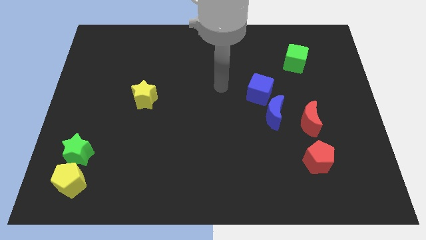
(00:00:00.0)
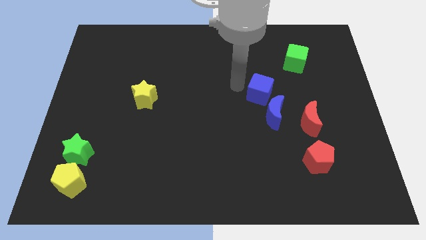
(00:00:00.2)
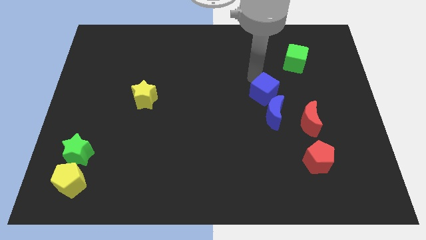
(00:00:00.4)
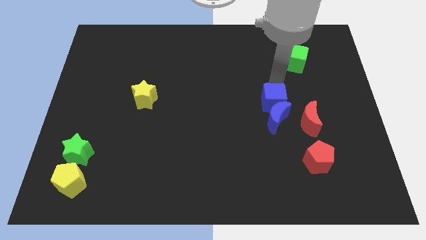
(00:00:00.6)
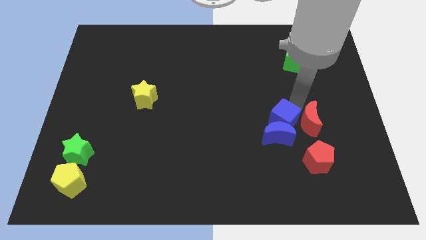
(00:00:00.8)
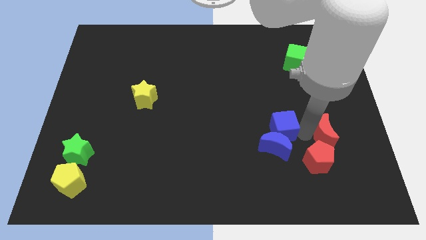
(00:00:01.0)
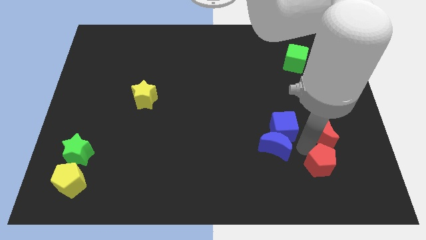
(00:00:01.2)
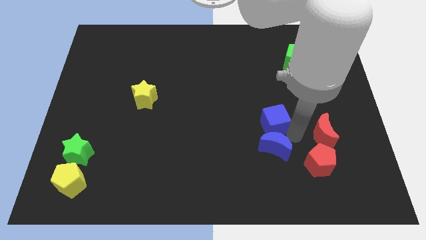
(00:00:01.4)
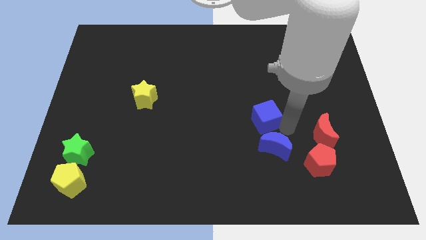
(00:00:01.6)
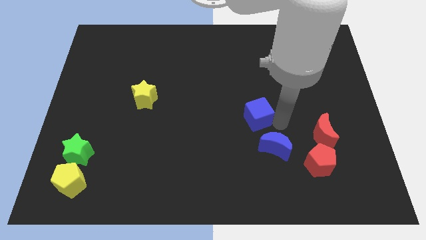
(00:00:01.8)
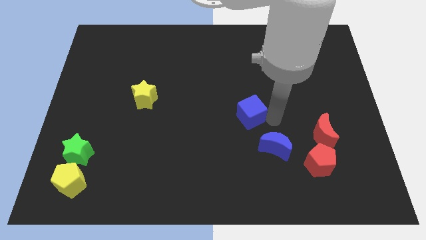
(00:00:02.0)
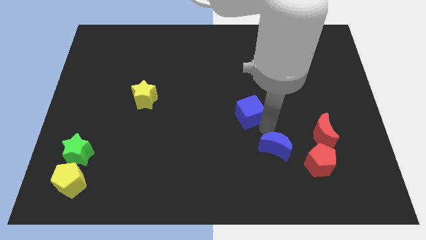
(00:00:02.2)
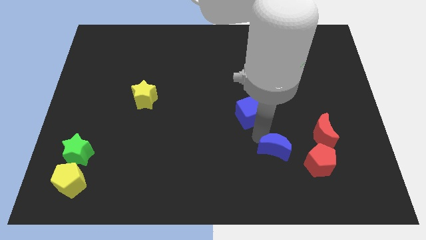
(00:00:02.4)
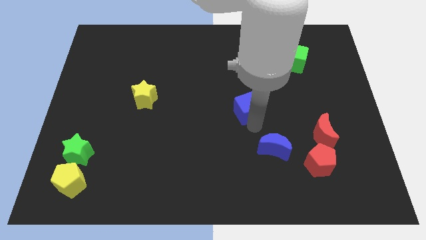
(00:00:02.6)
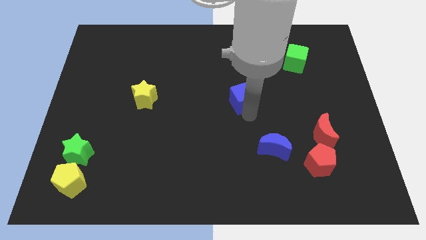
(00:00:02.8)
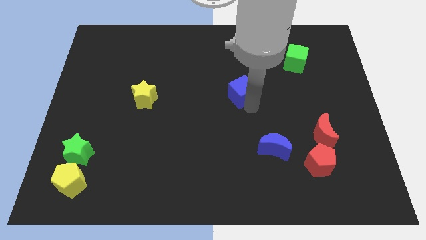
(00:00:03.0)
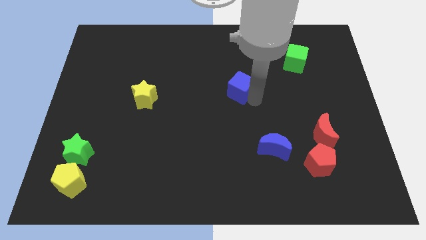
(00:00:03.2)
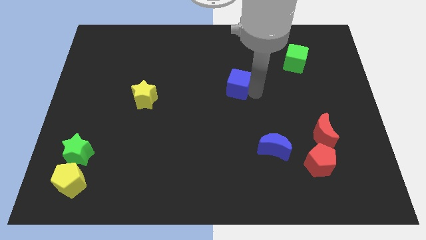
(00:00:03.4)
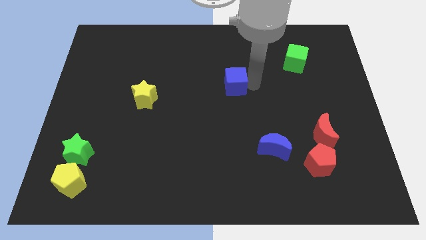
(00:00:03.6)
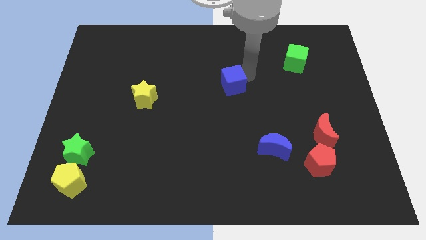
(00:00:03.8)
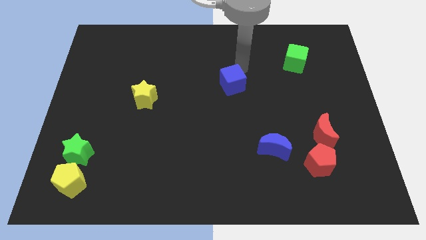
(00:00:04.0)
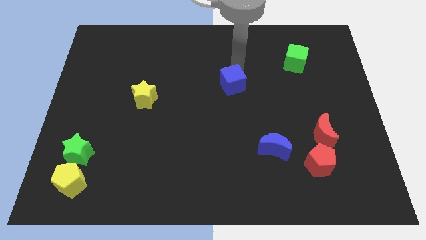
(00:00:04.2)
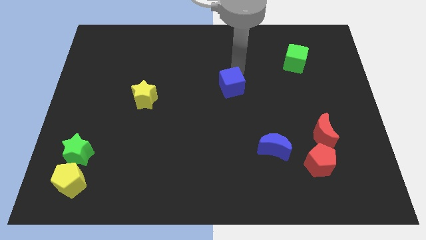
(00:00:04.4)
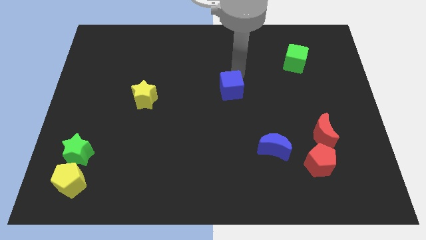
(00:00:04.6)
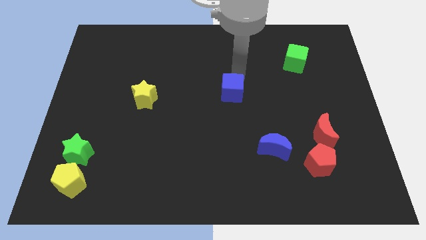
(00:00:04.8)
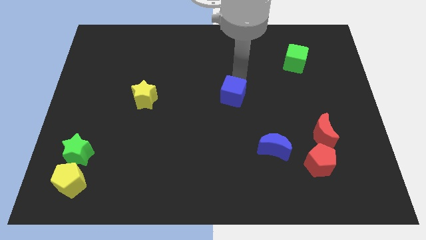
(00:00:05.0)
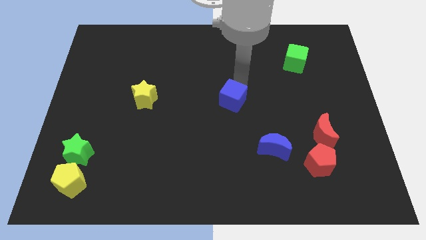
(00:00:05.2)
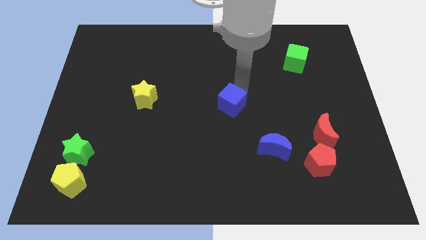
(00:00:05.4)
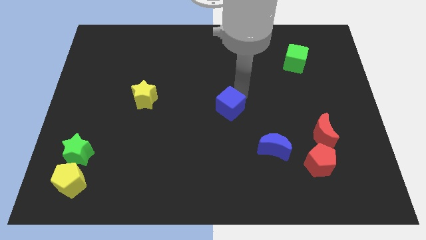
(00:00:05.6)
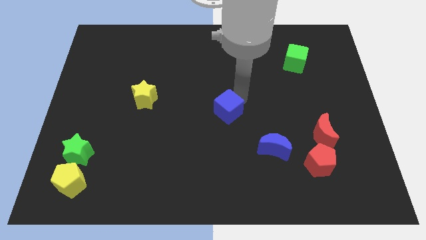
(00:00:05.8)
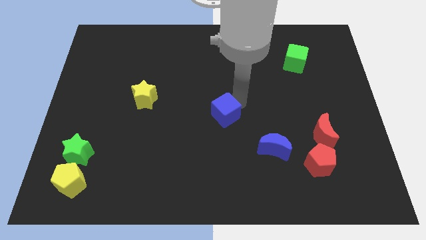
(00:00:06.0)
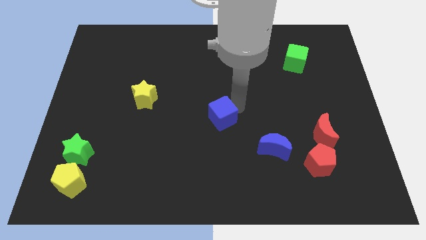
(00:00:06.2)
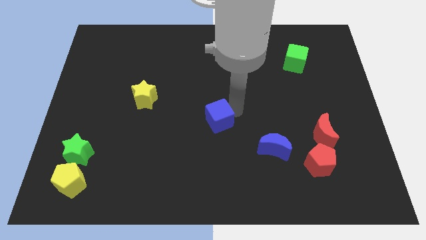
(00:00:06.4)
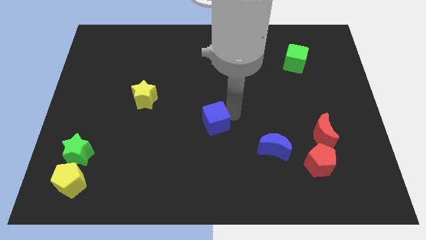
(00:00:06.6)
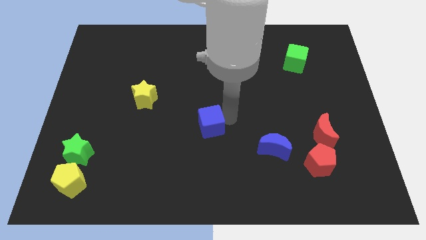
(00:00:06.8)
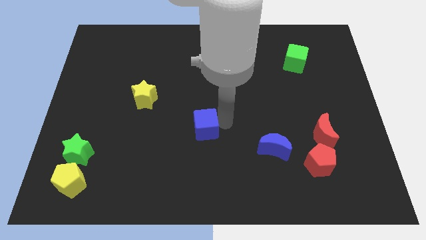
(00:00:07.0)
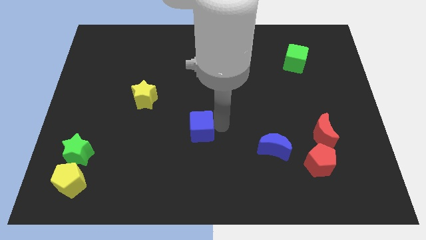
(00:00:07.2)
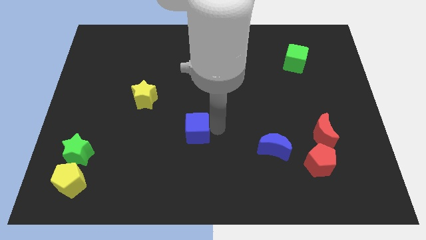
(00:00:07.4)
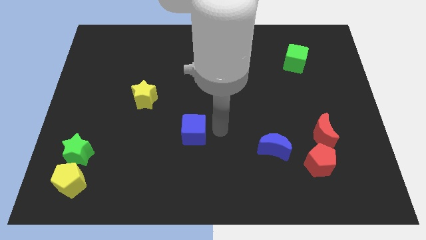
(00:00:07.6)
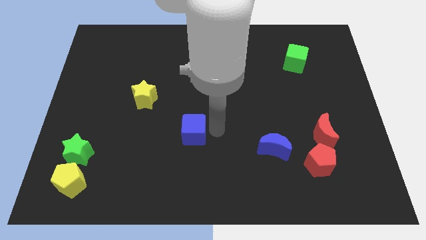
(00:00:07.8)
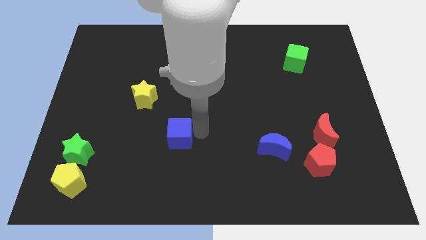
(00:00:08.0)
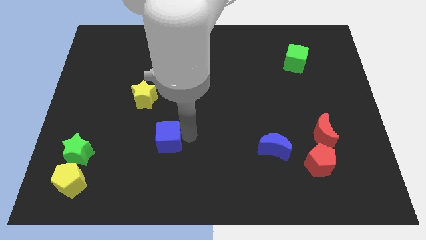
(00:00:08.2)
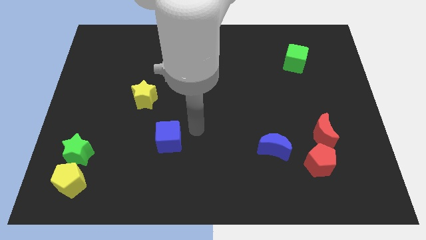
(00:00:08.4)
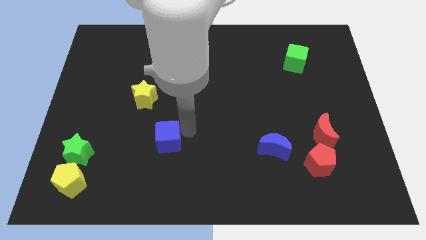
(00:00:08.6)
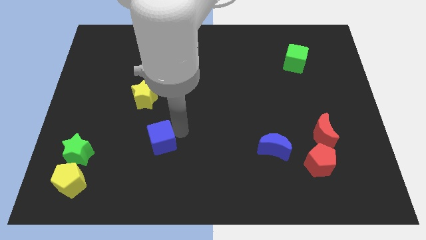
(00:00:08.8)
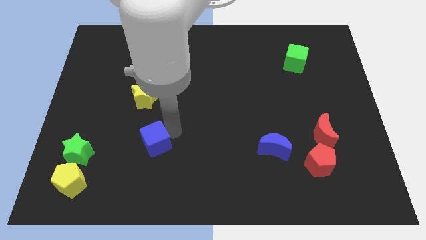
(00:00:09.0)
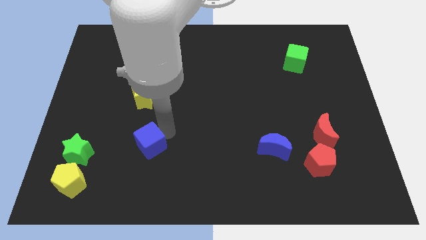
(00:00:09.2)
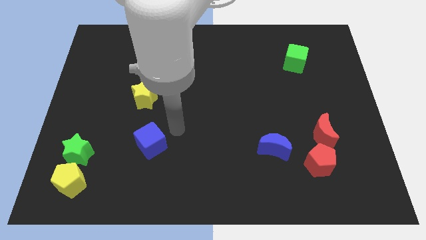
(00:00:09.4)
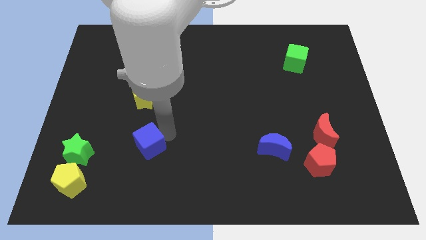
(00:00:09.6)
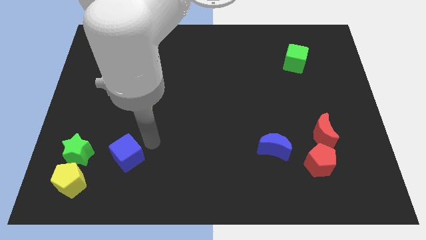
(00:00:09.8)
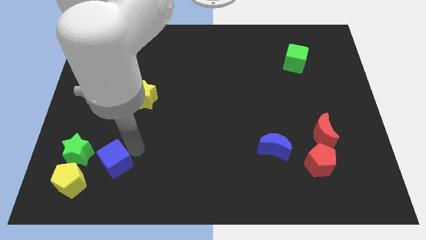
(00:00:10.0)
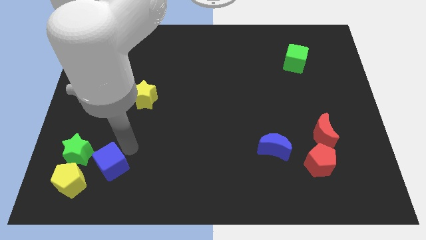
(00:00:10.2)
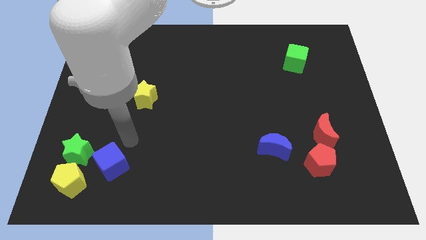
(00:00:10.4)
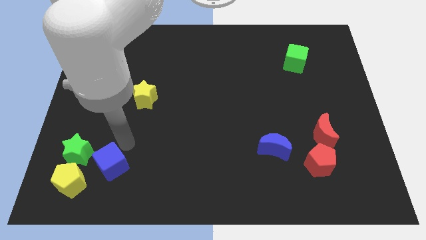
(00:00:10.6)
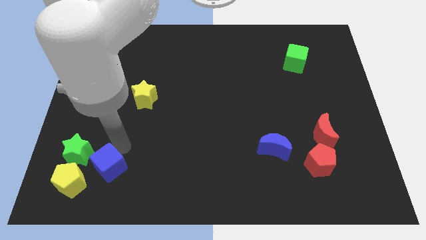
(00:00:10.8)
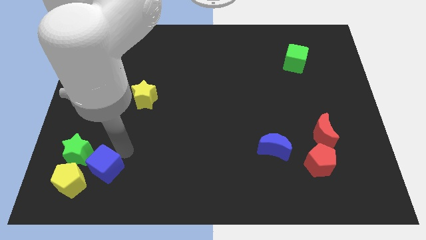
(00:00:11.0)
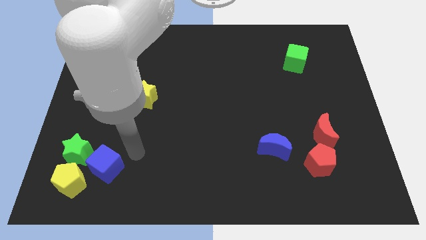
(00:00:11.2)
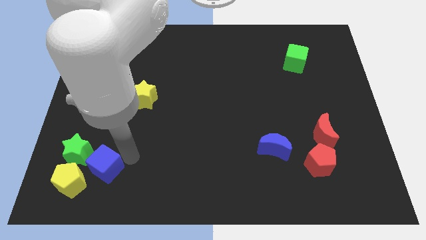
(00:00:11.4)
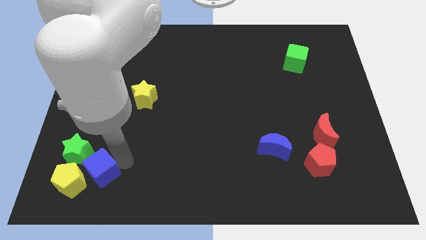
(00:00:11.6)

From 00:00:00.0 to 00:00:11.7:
move the blue cube towards the yellow pentagon

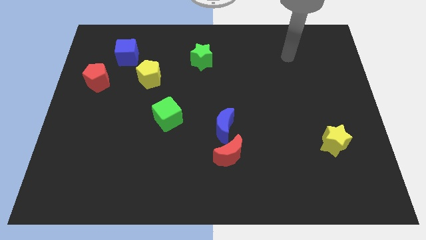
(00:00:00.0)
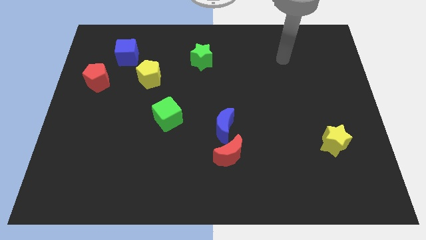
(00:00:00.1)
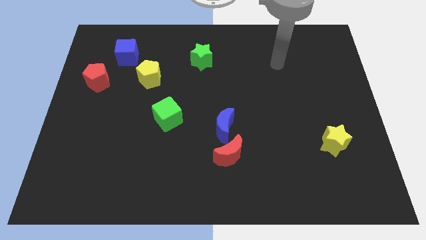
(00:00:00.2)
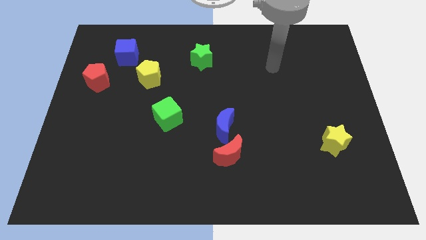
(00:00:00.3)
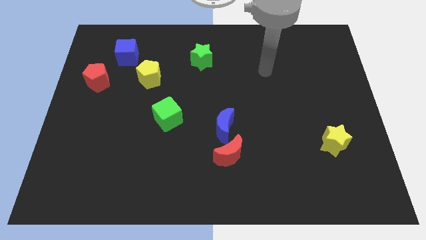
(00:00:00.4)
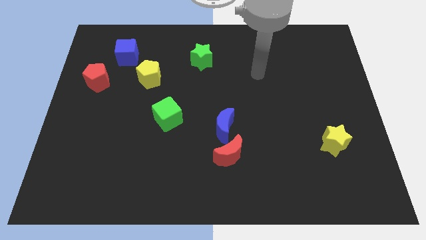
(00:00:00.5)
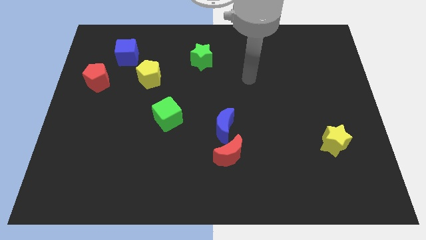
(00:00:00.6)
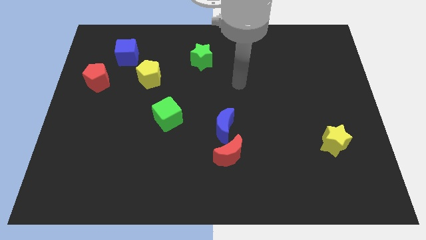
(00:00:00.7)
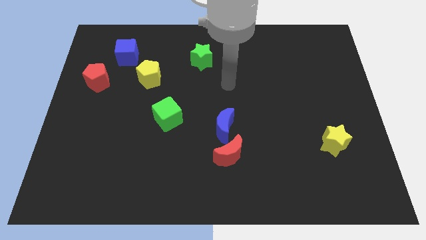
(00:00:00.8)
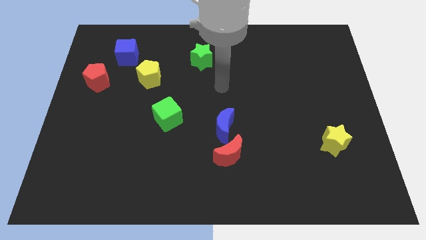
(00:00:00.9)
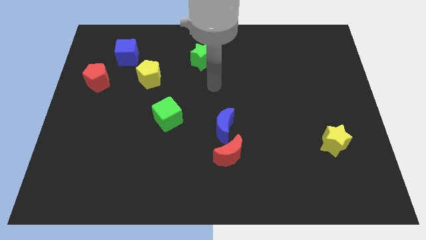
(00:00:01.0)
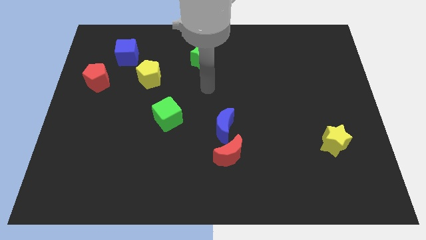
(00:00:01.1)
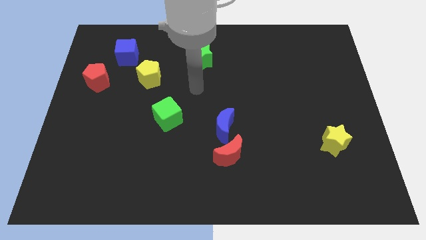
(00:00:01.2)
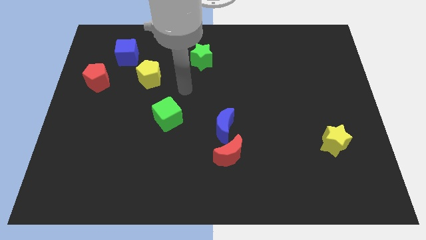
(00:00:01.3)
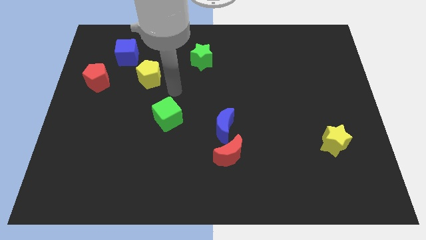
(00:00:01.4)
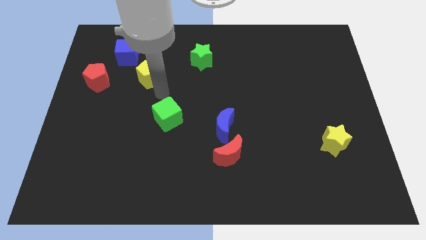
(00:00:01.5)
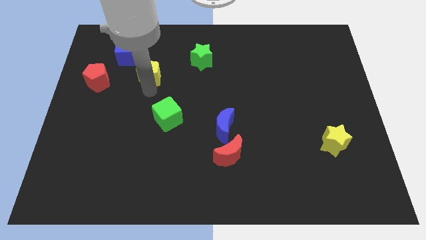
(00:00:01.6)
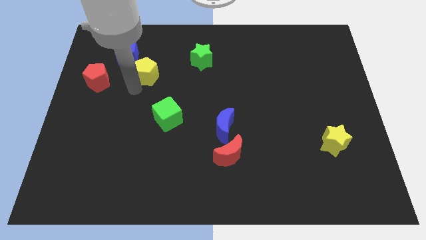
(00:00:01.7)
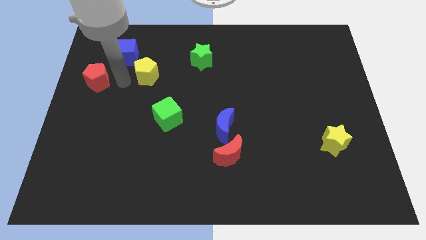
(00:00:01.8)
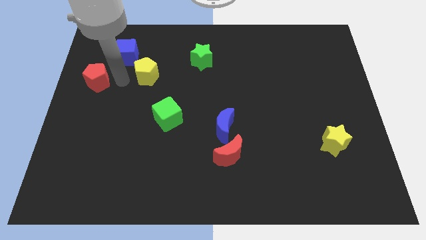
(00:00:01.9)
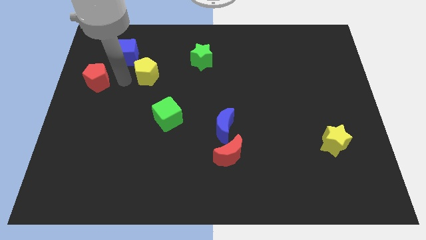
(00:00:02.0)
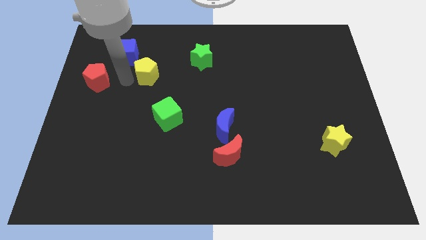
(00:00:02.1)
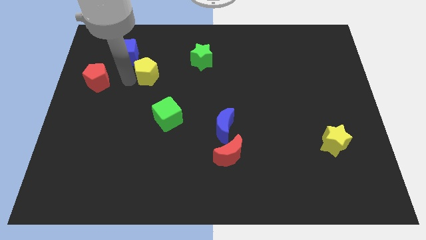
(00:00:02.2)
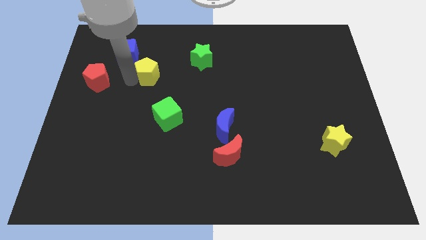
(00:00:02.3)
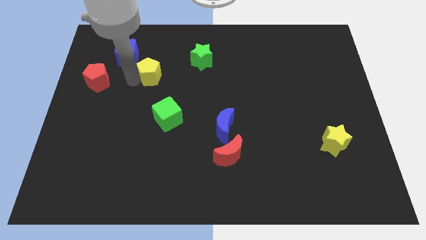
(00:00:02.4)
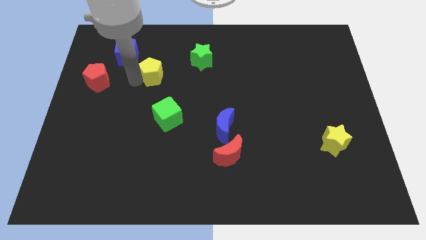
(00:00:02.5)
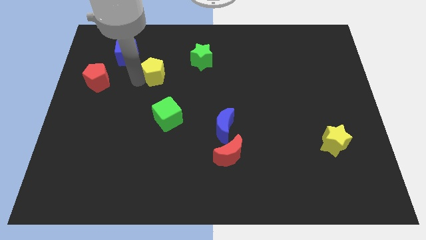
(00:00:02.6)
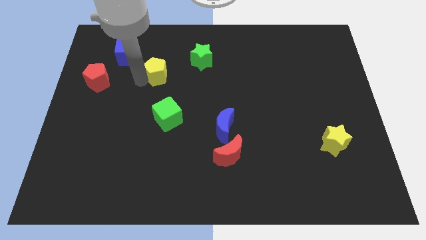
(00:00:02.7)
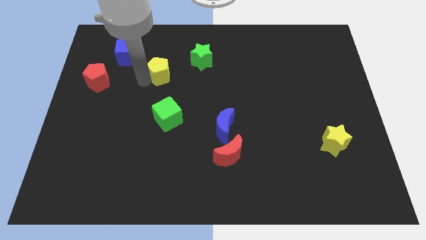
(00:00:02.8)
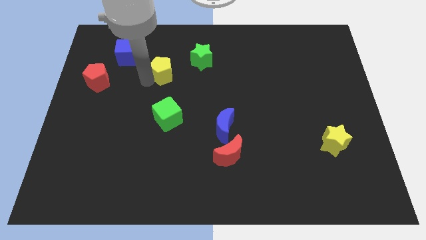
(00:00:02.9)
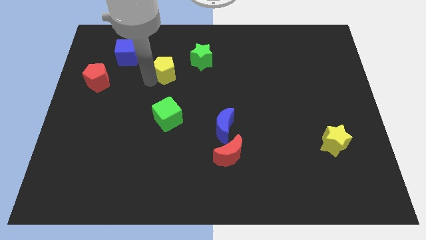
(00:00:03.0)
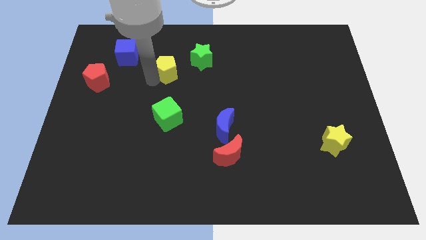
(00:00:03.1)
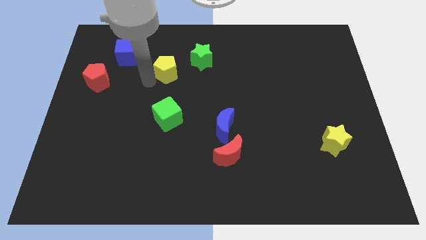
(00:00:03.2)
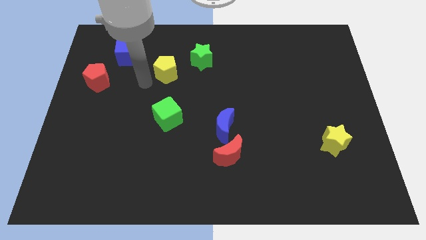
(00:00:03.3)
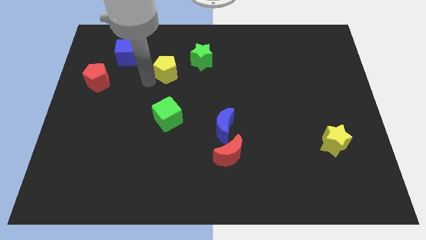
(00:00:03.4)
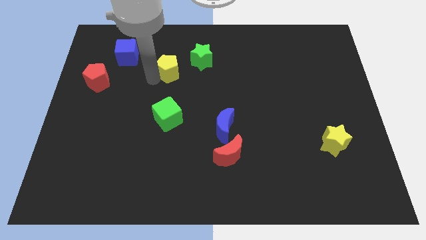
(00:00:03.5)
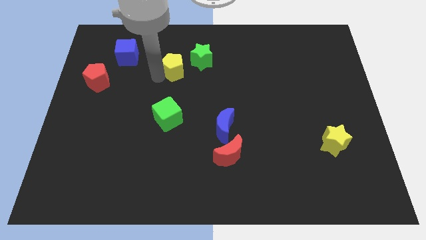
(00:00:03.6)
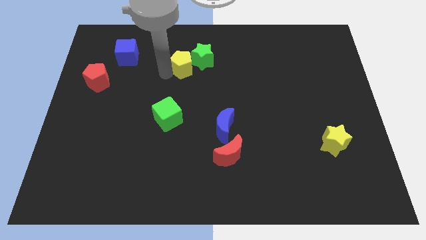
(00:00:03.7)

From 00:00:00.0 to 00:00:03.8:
put the yellow pentagon towards the green star
